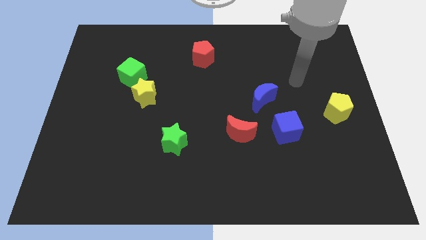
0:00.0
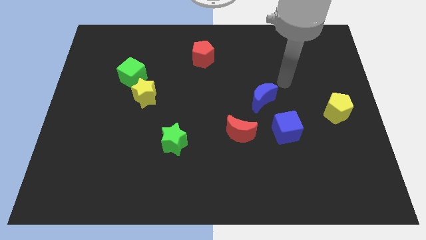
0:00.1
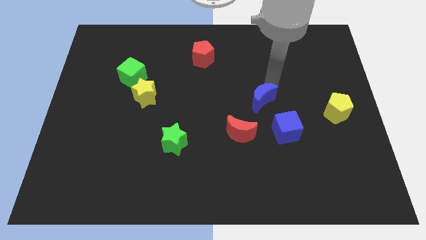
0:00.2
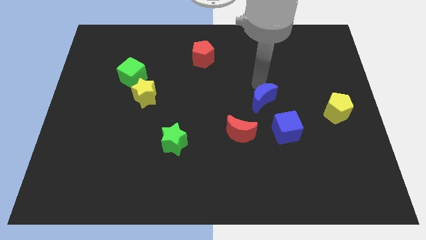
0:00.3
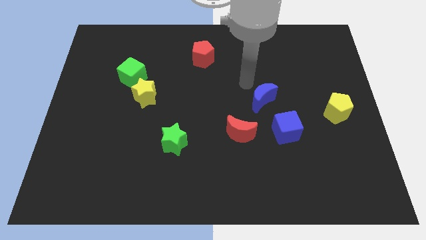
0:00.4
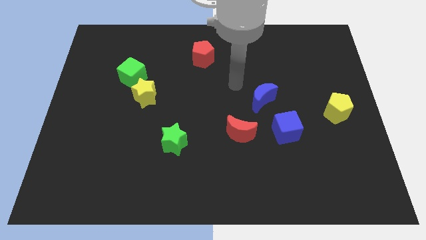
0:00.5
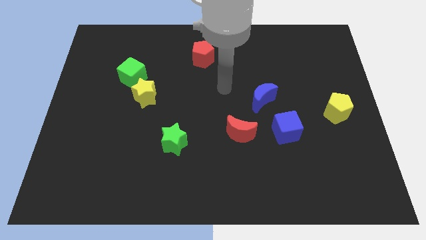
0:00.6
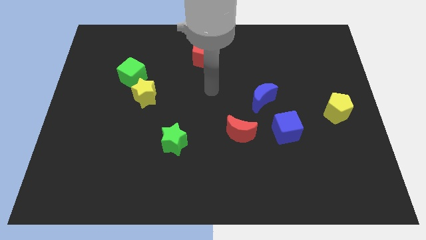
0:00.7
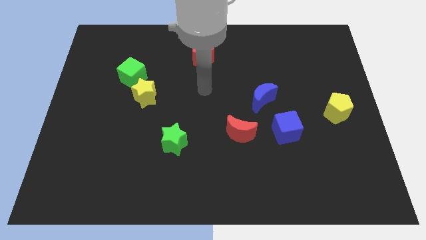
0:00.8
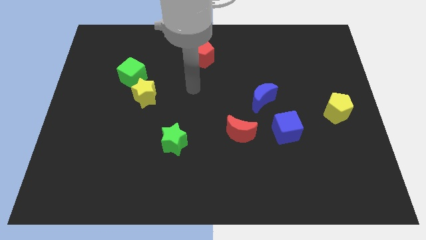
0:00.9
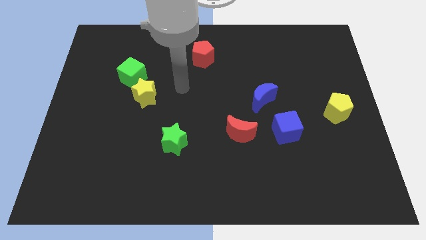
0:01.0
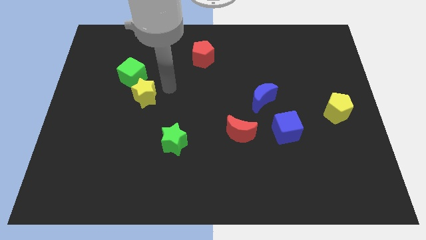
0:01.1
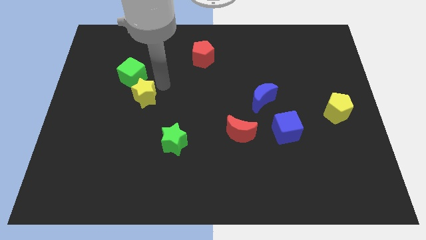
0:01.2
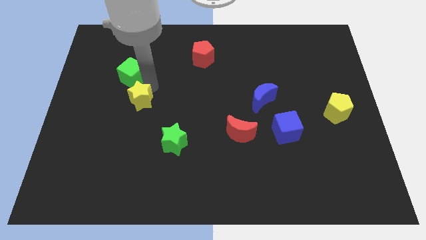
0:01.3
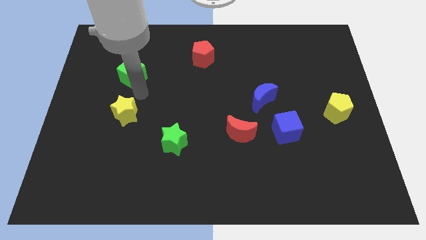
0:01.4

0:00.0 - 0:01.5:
separate the green cube from the yellow star

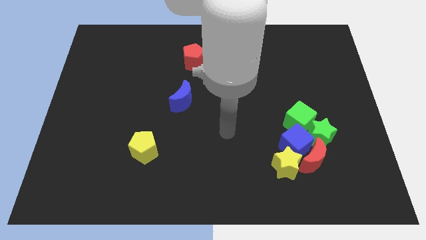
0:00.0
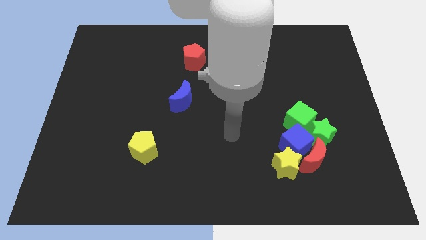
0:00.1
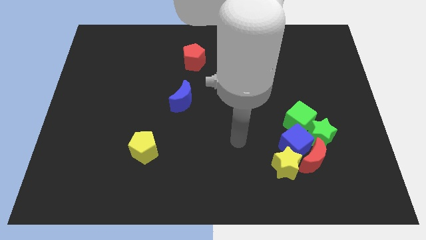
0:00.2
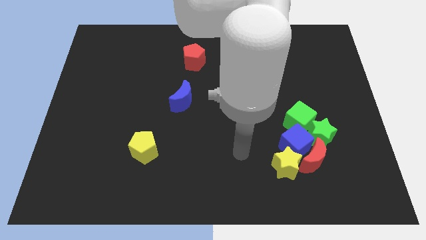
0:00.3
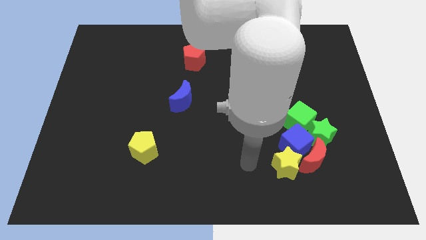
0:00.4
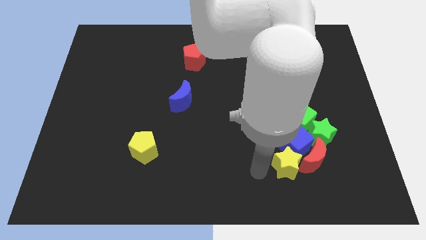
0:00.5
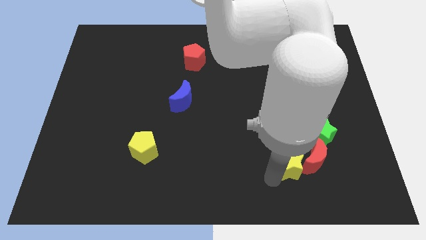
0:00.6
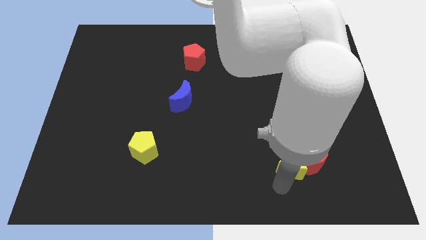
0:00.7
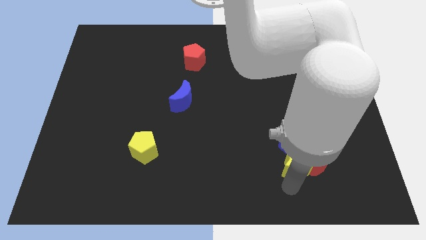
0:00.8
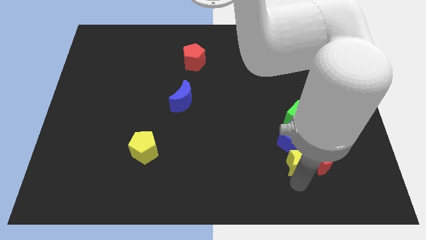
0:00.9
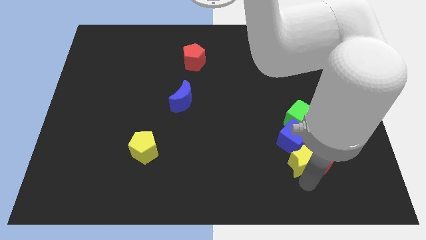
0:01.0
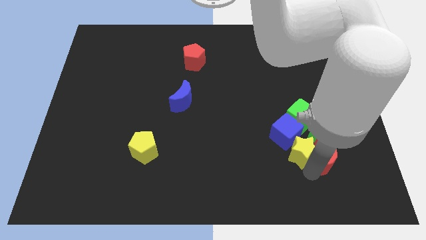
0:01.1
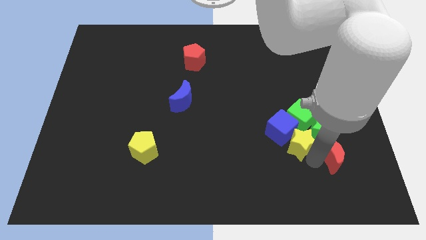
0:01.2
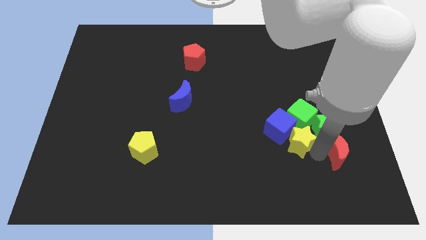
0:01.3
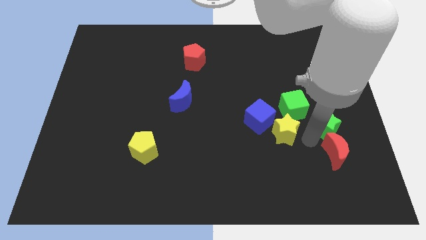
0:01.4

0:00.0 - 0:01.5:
move the blue cube away from the group of blocks

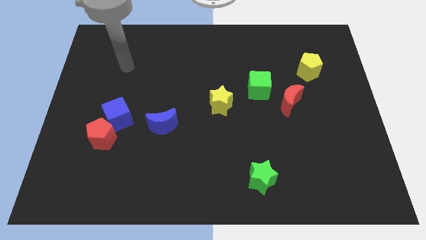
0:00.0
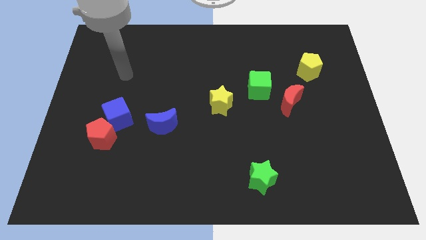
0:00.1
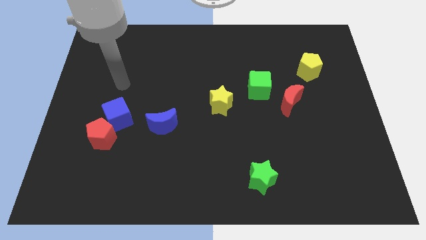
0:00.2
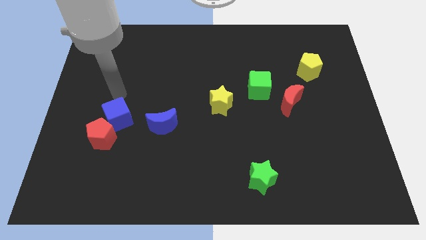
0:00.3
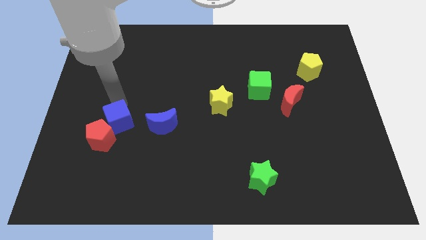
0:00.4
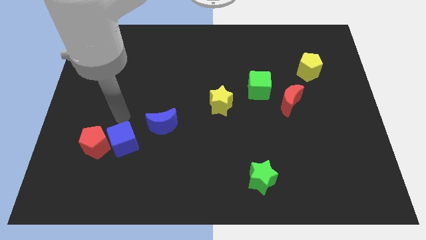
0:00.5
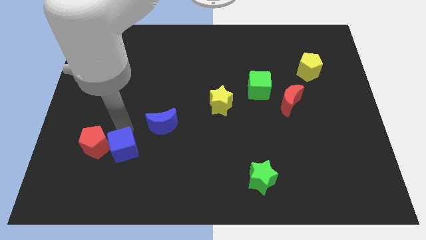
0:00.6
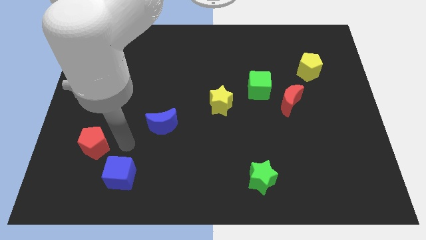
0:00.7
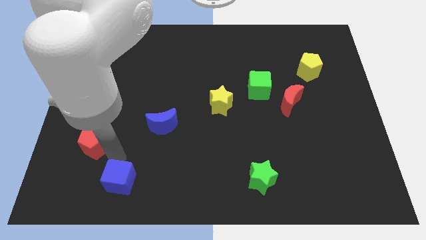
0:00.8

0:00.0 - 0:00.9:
move the red pentagon away from the blue cube

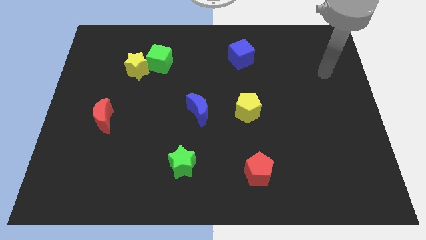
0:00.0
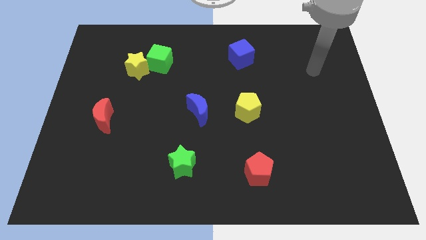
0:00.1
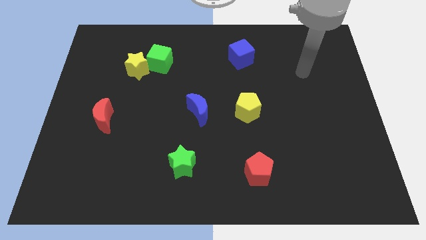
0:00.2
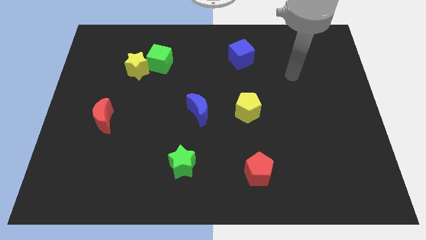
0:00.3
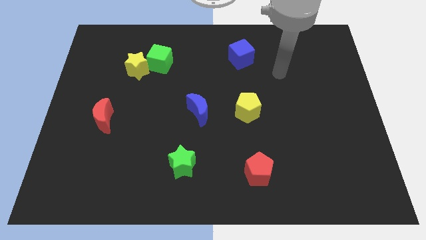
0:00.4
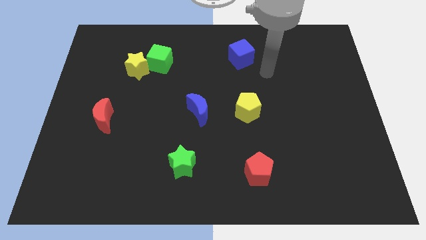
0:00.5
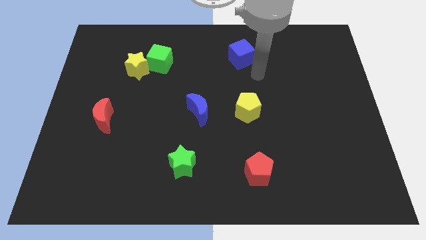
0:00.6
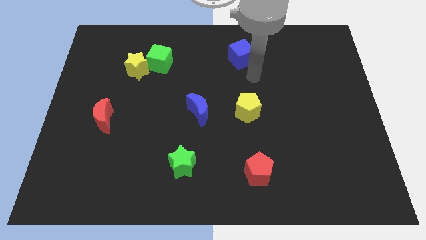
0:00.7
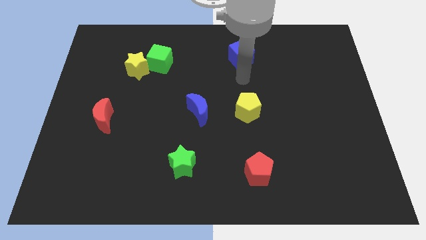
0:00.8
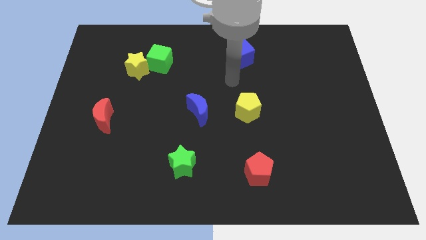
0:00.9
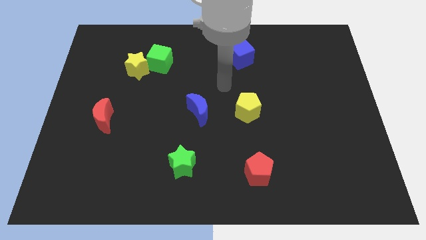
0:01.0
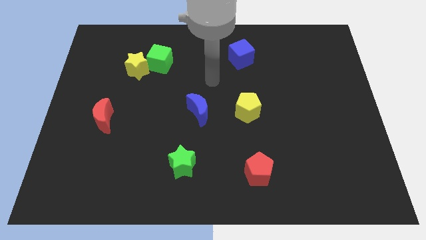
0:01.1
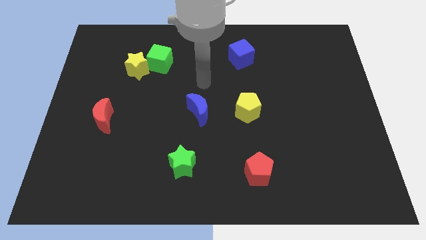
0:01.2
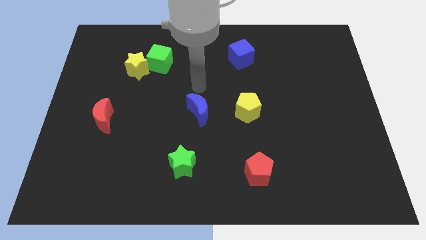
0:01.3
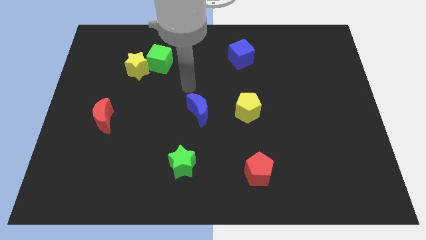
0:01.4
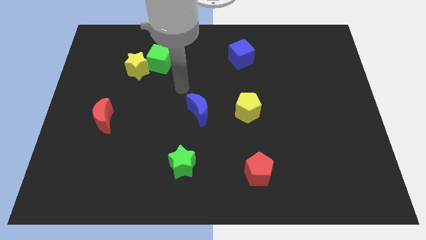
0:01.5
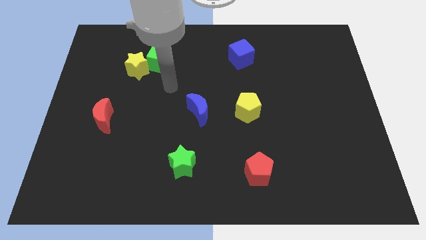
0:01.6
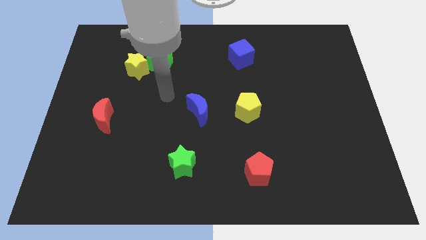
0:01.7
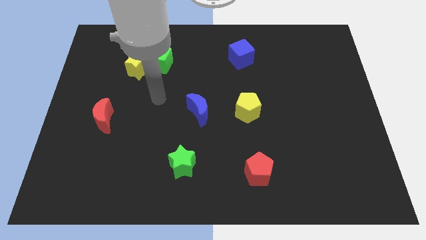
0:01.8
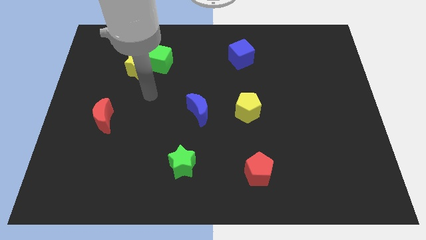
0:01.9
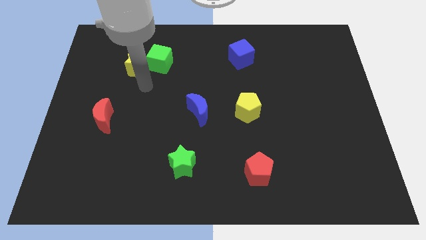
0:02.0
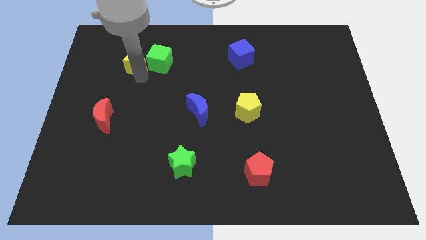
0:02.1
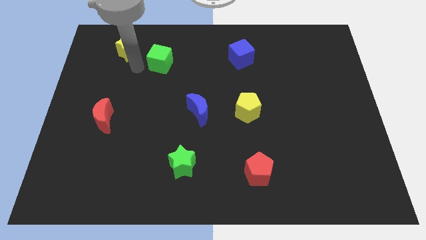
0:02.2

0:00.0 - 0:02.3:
move the green cube away from the yellow star

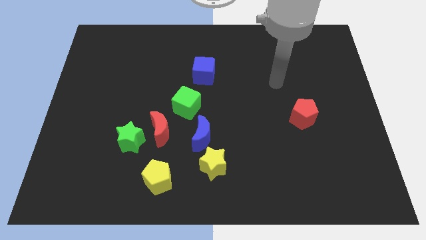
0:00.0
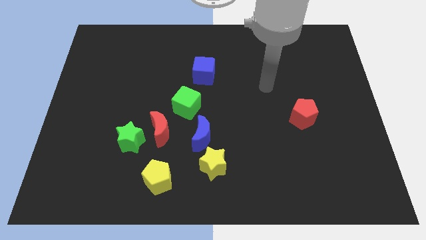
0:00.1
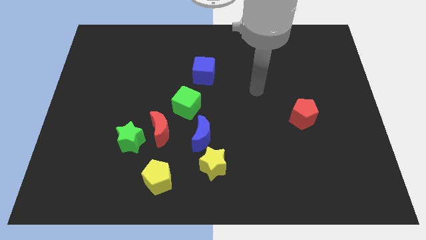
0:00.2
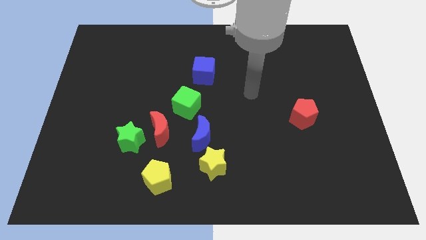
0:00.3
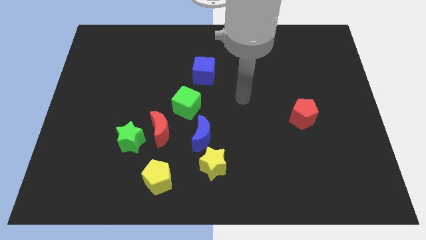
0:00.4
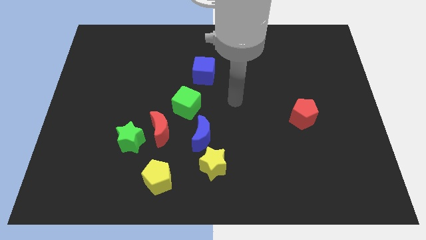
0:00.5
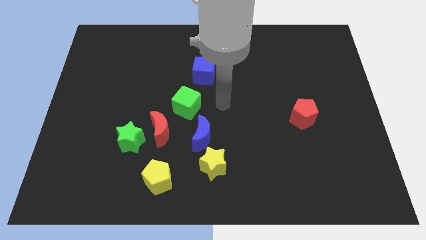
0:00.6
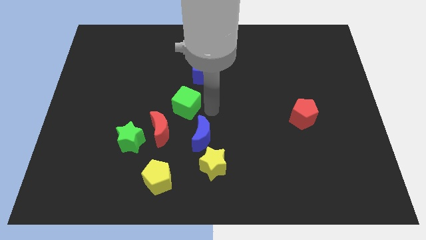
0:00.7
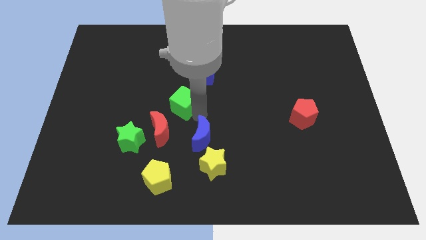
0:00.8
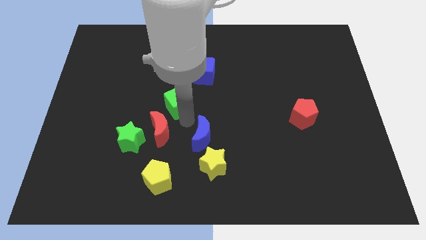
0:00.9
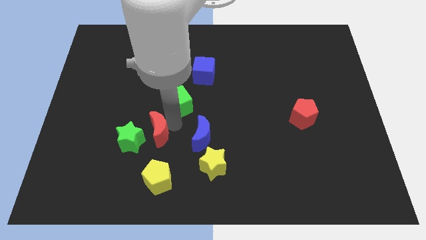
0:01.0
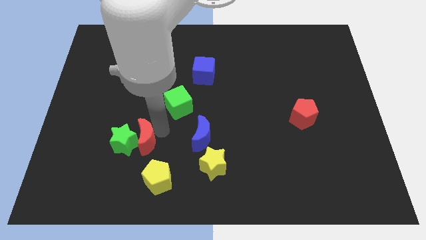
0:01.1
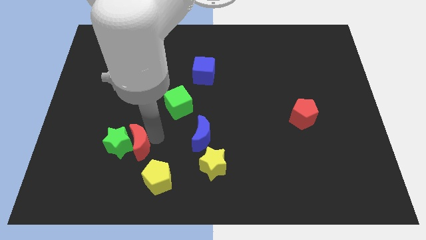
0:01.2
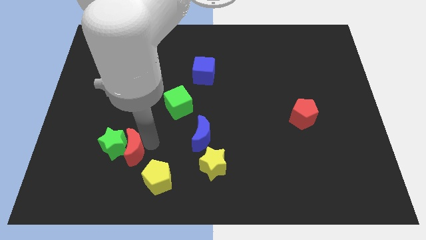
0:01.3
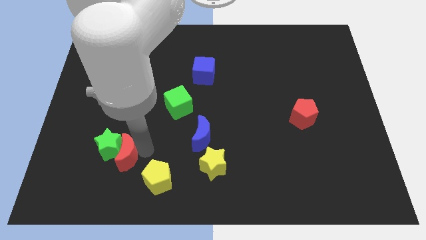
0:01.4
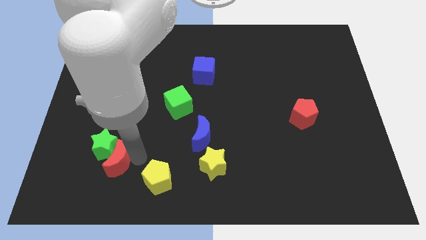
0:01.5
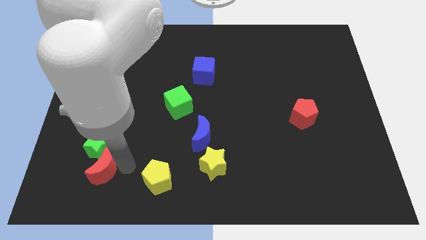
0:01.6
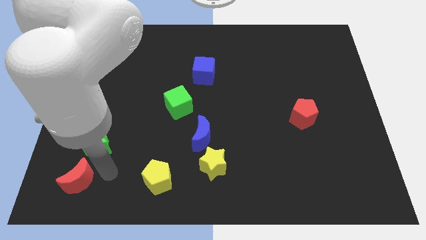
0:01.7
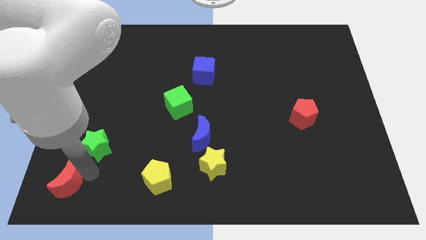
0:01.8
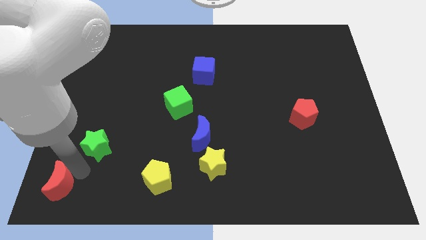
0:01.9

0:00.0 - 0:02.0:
move the green star away from the red moon

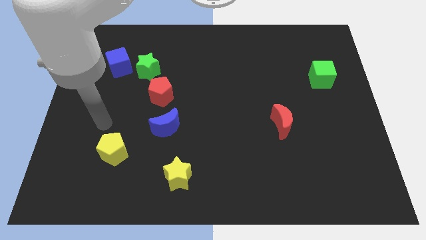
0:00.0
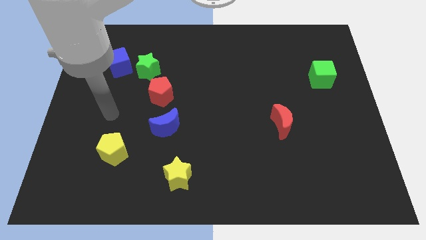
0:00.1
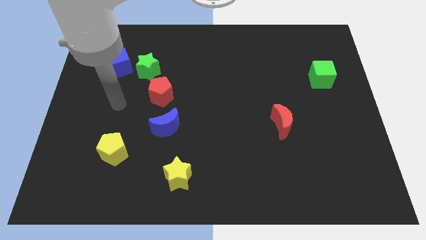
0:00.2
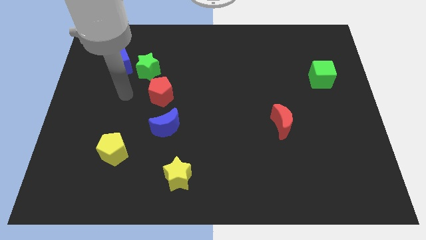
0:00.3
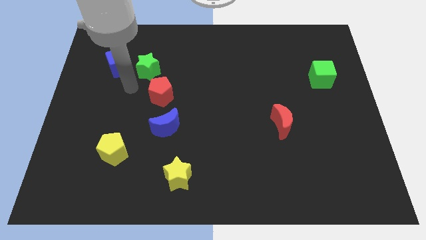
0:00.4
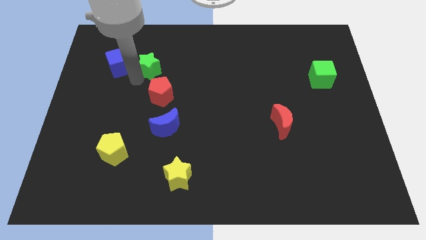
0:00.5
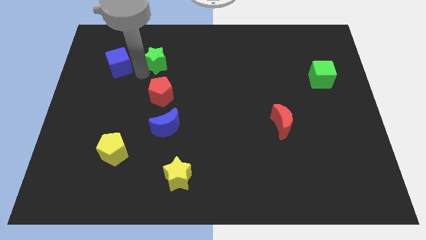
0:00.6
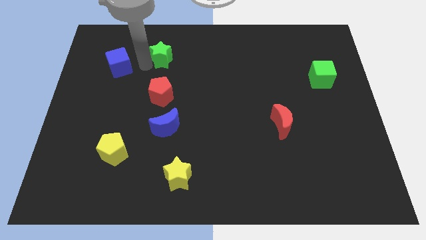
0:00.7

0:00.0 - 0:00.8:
pull the blue cube apart from the green star

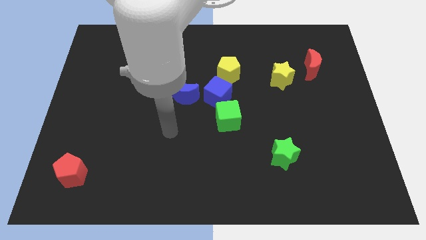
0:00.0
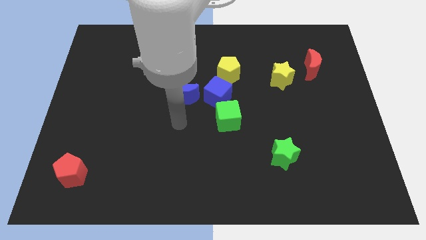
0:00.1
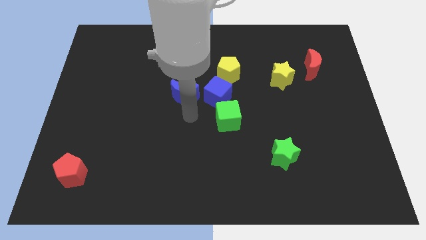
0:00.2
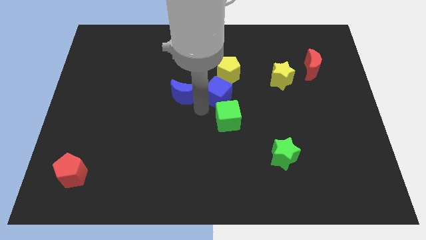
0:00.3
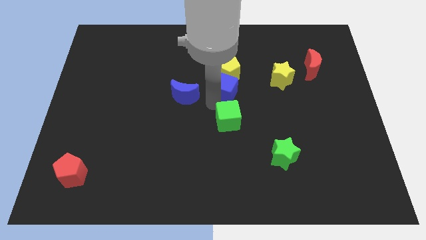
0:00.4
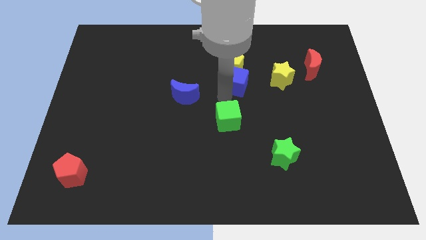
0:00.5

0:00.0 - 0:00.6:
pull the green cube apart from the blue cube
